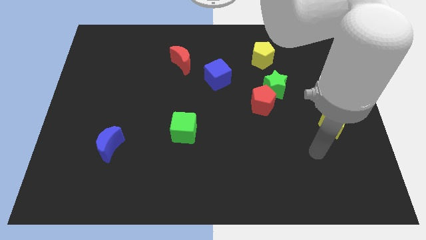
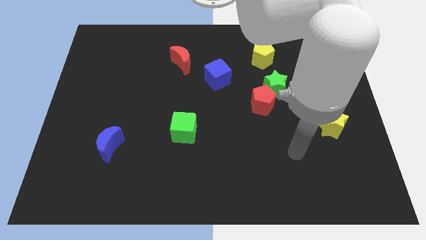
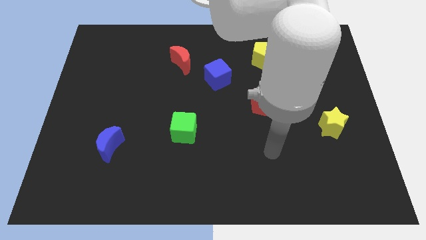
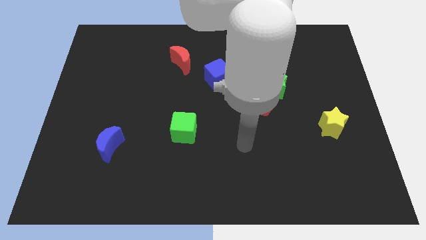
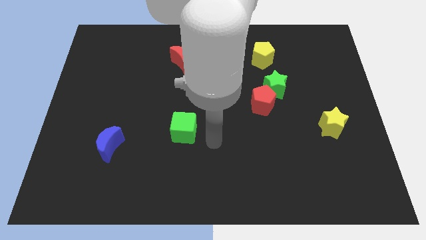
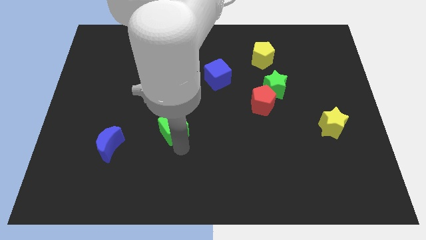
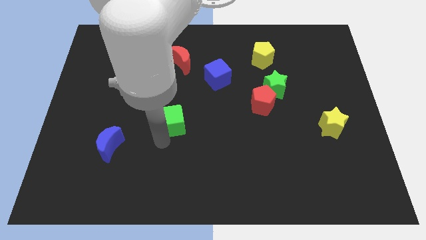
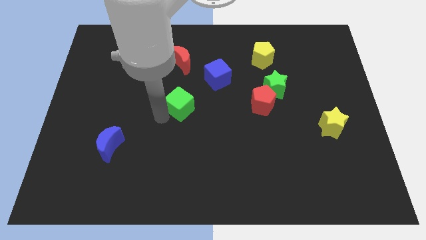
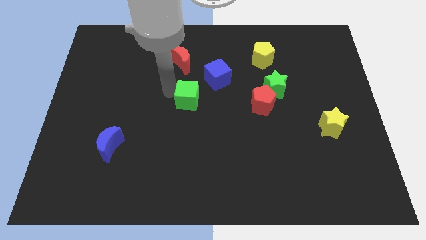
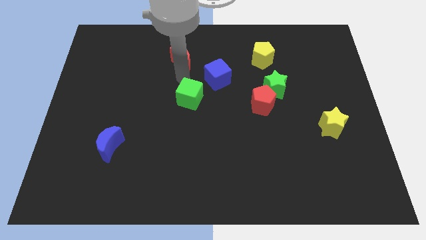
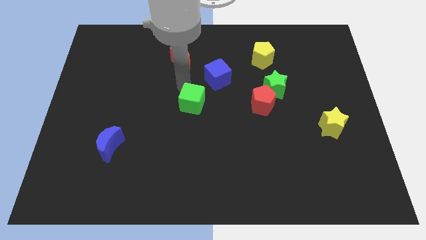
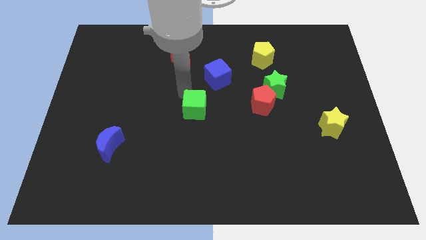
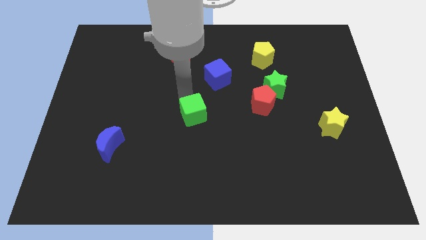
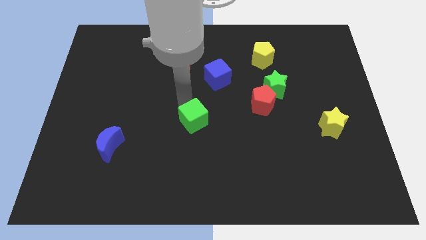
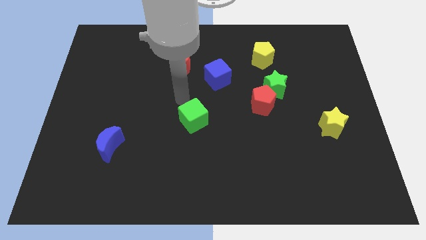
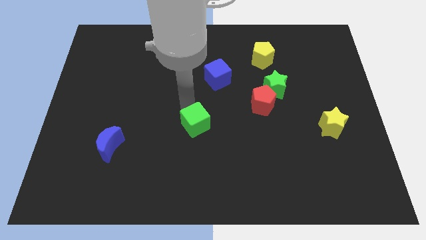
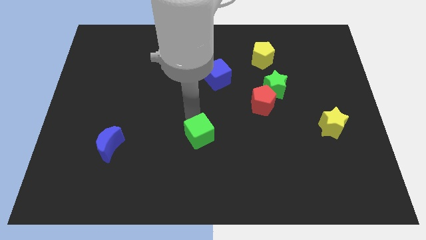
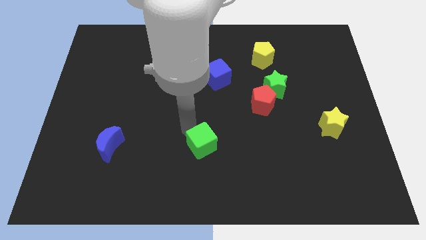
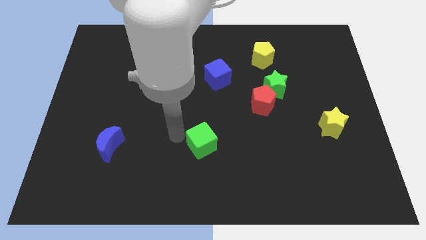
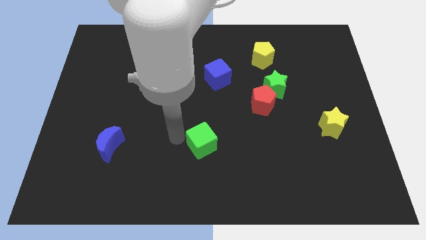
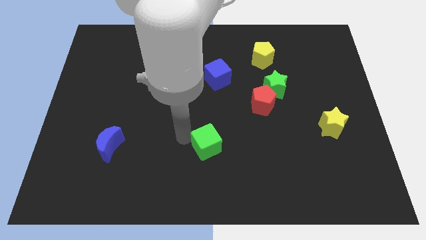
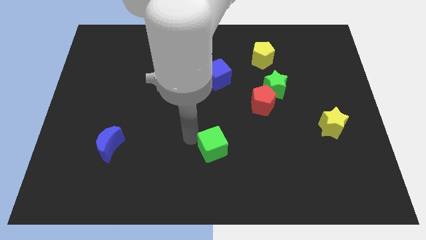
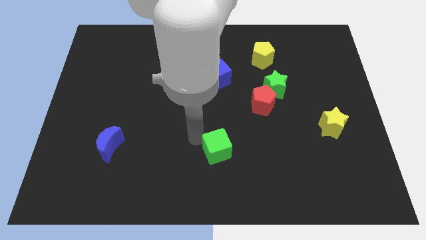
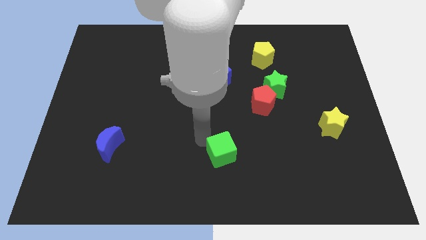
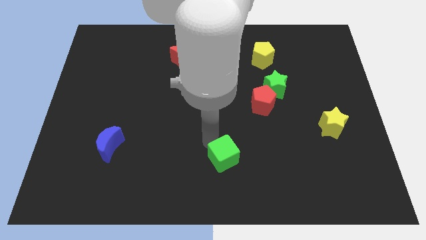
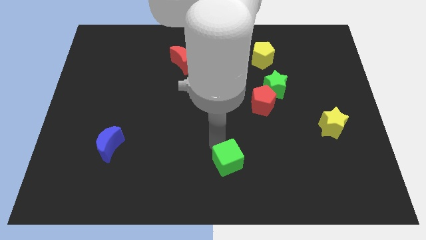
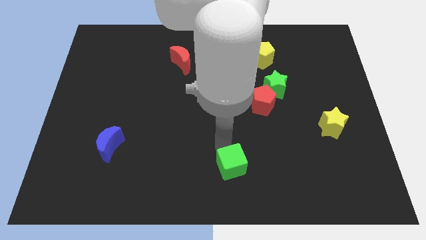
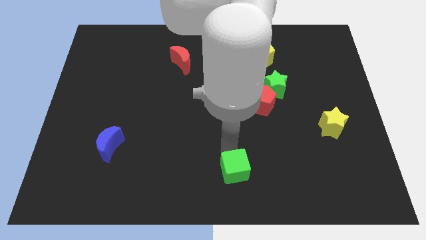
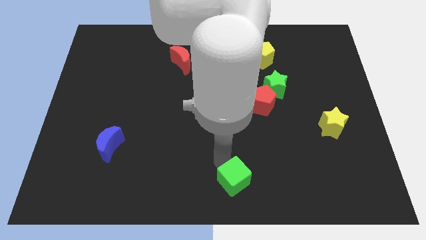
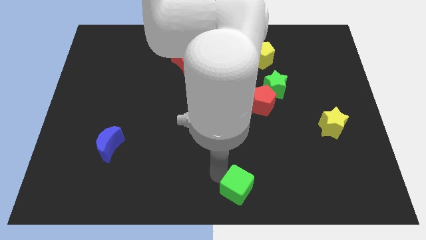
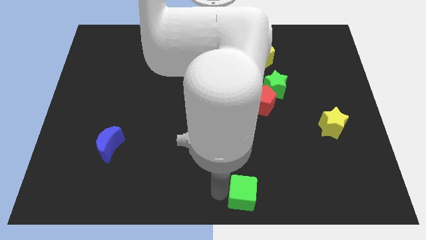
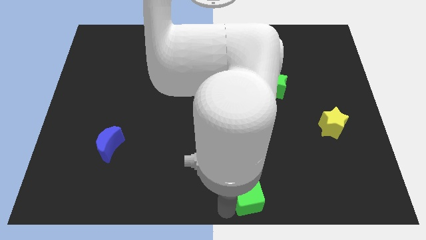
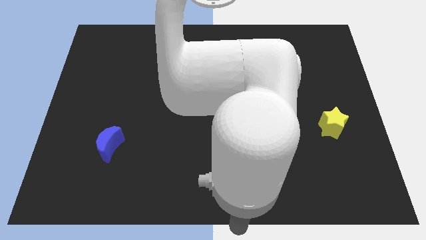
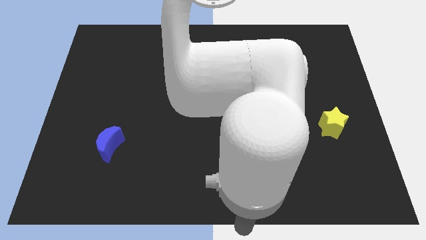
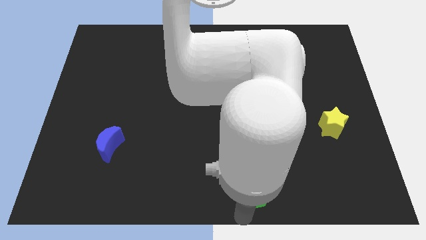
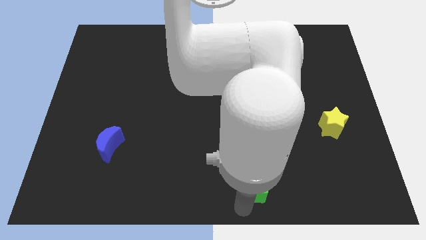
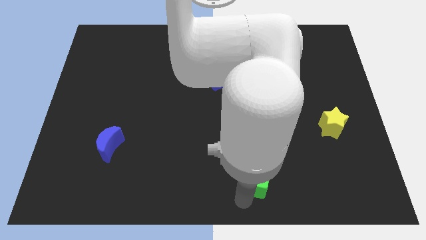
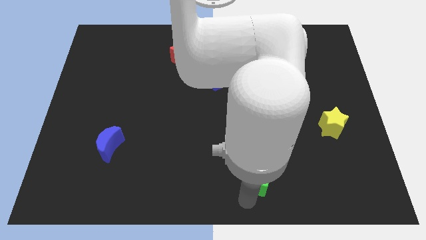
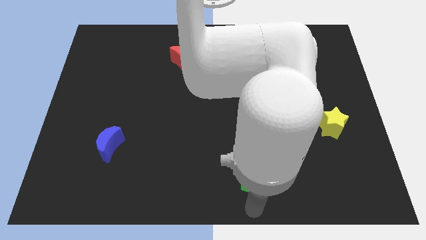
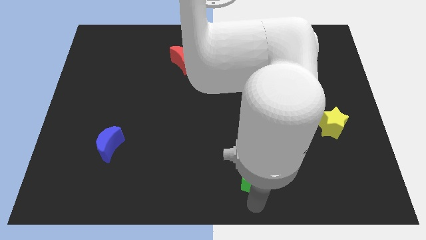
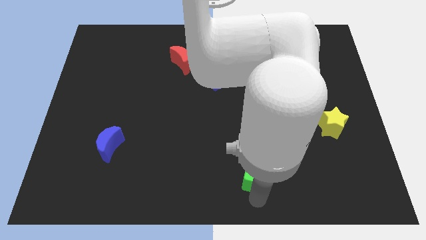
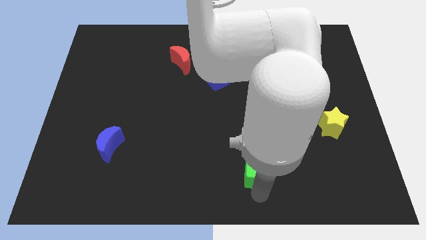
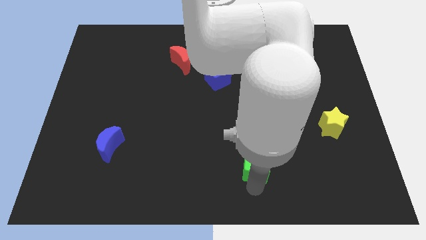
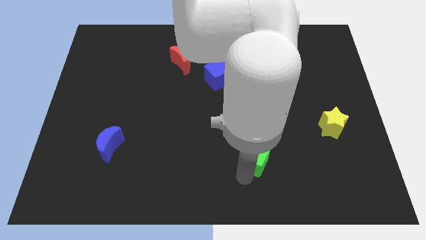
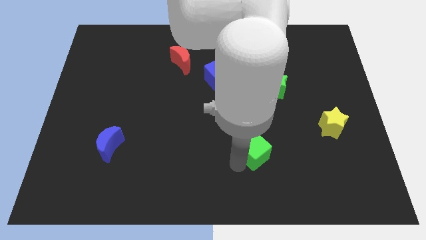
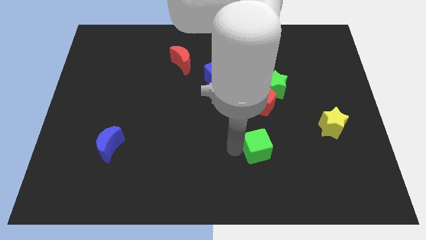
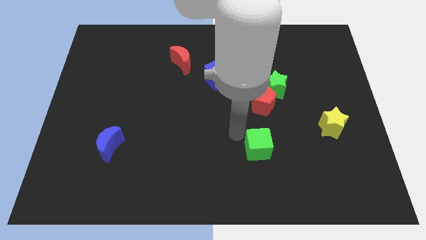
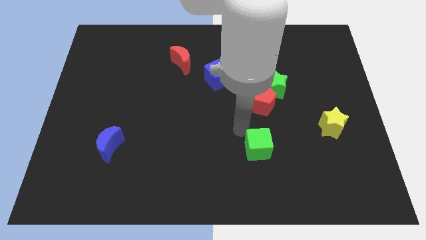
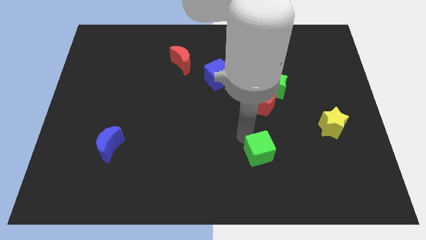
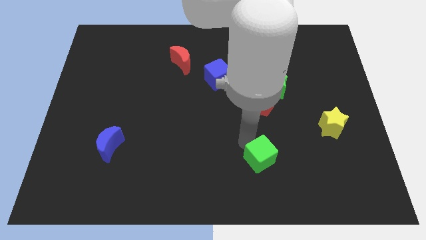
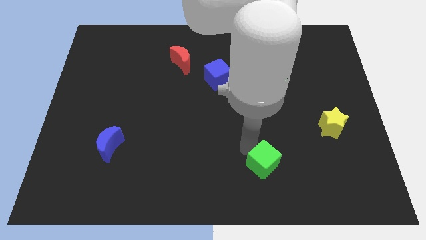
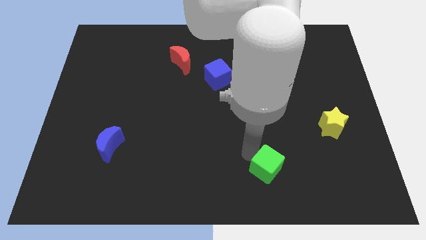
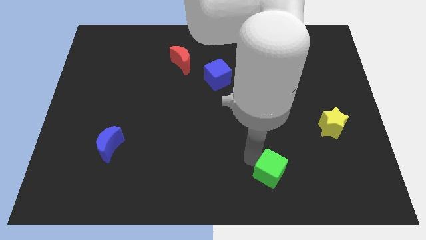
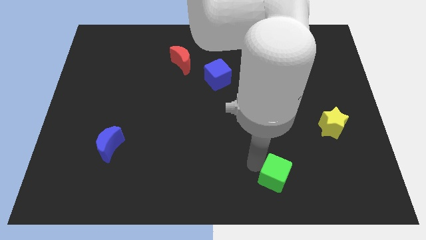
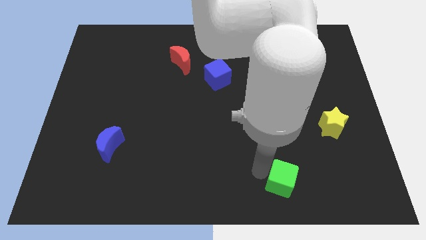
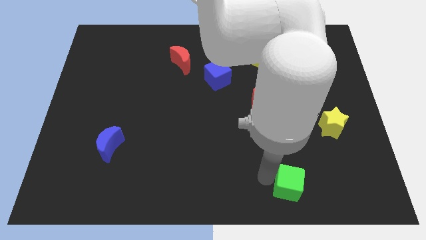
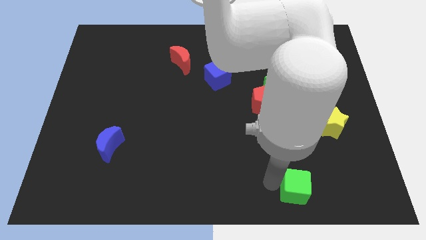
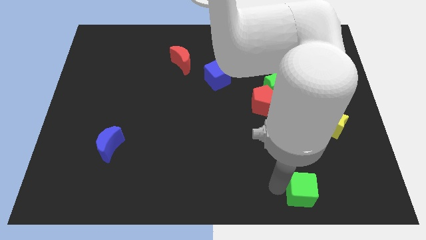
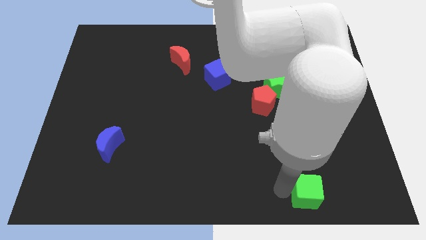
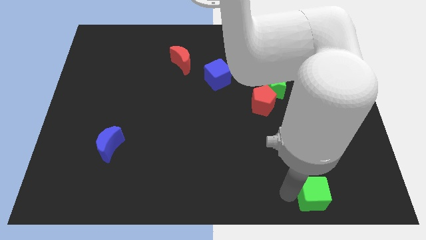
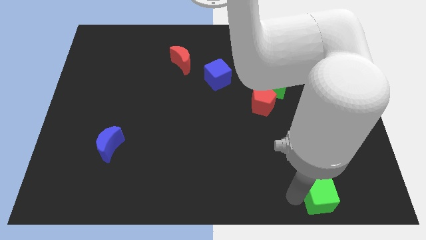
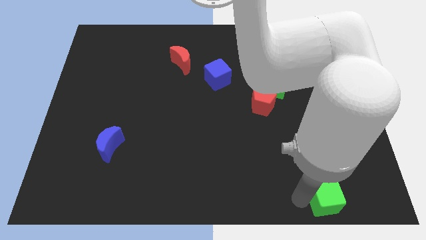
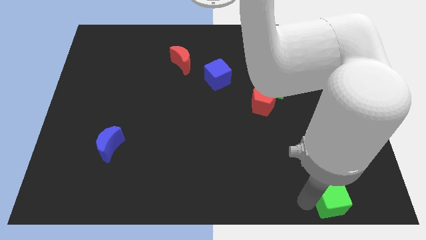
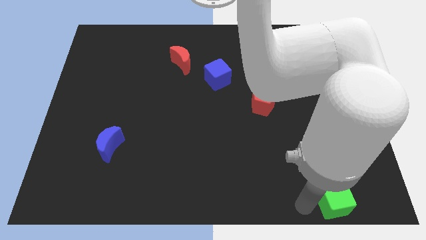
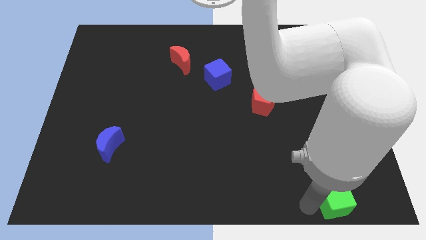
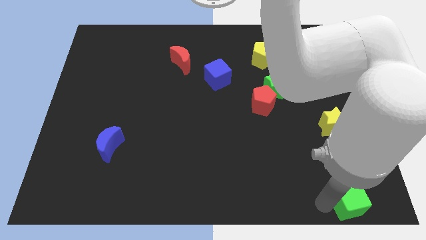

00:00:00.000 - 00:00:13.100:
slide the green cube to the lower right corner
